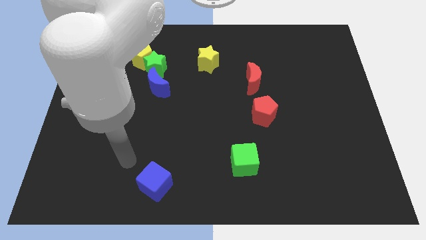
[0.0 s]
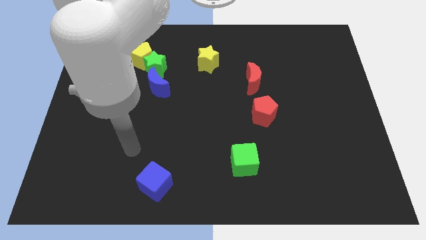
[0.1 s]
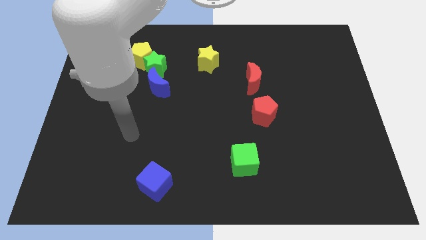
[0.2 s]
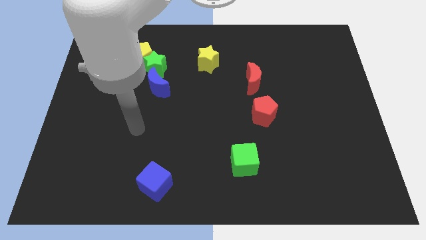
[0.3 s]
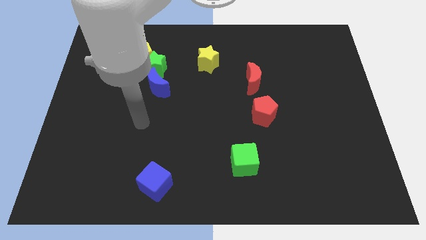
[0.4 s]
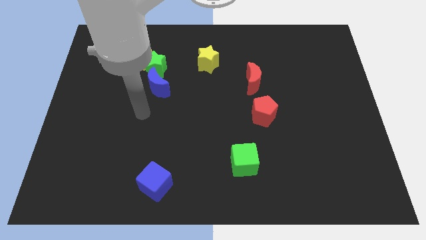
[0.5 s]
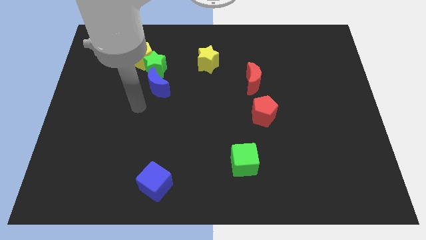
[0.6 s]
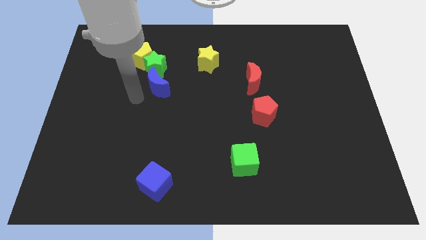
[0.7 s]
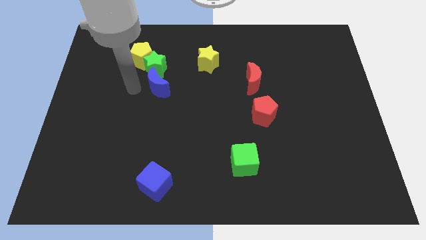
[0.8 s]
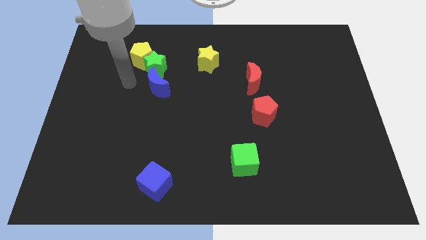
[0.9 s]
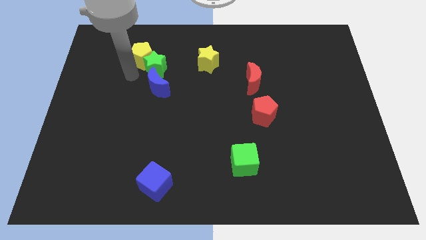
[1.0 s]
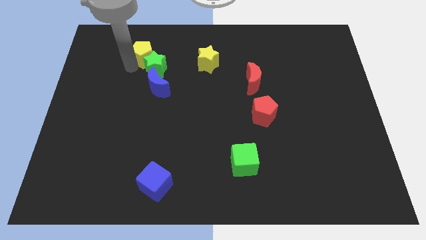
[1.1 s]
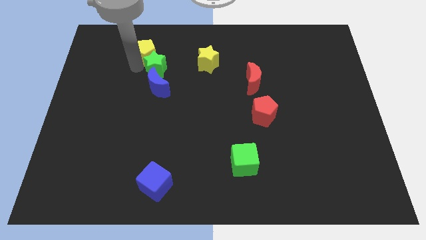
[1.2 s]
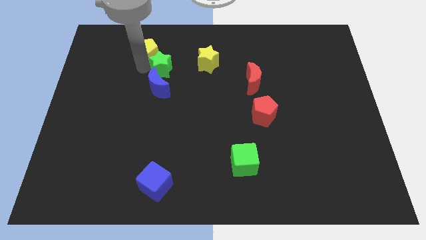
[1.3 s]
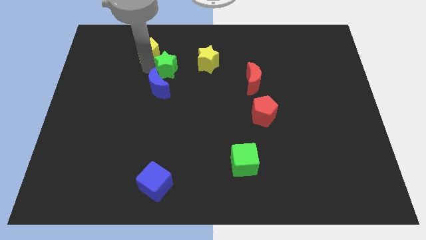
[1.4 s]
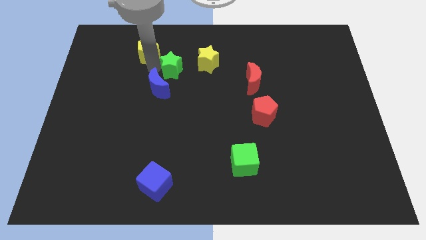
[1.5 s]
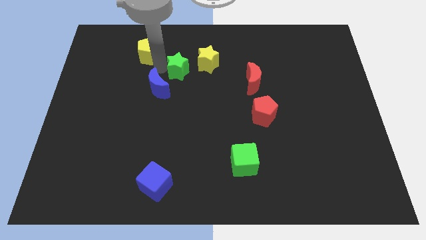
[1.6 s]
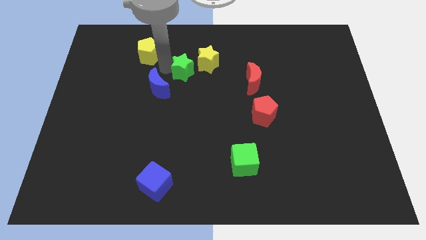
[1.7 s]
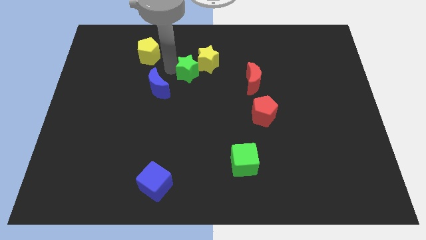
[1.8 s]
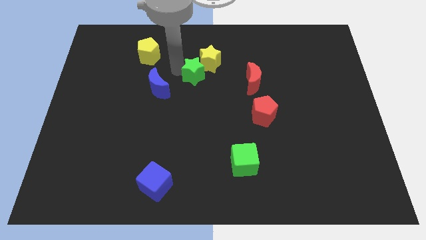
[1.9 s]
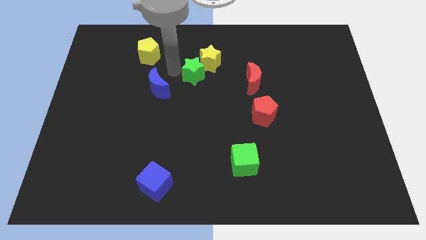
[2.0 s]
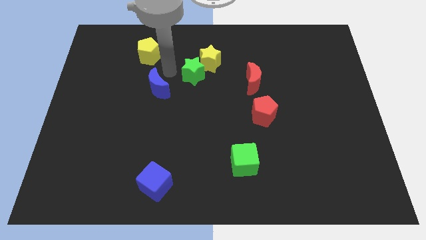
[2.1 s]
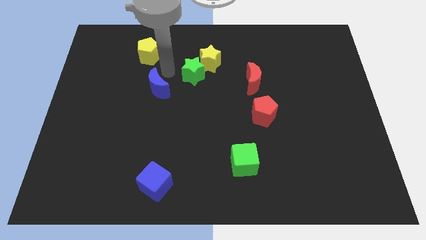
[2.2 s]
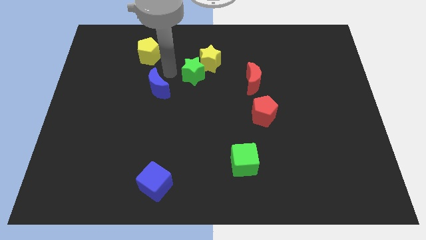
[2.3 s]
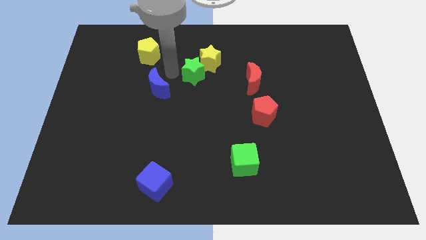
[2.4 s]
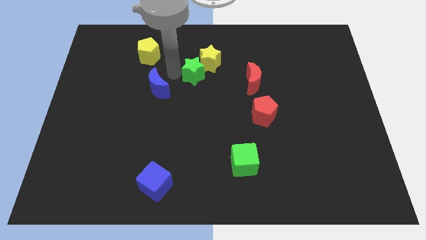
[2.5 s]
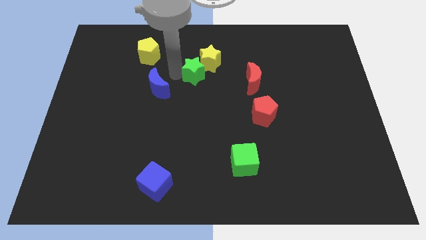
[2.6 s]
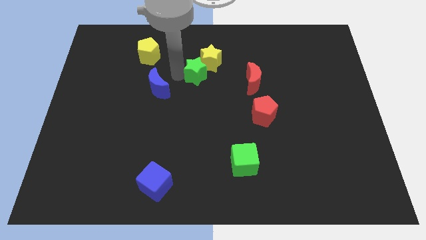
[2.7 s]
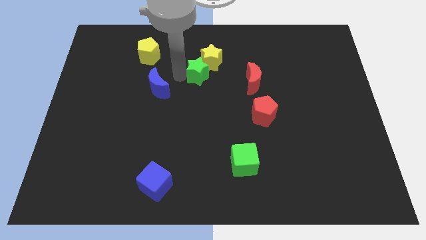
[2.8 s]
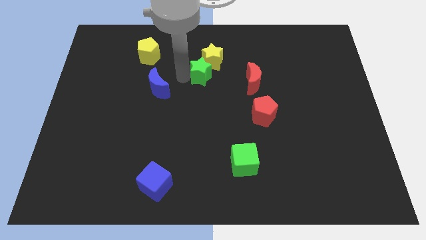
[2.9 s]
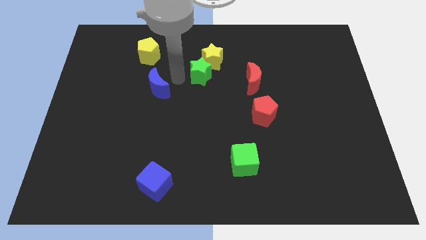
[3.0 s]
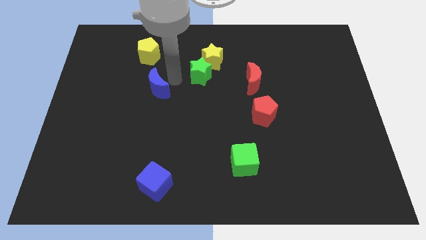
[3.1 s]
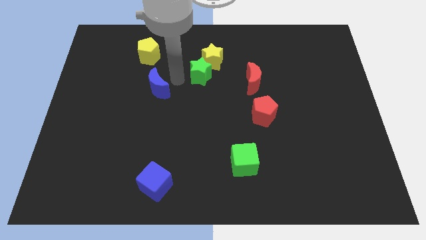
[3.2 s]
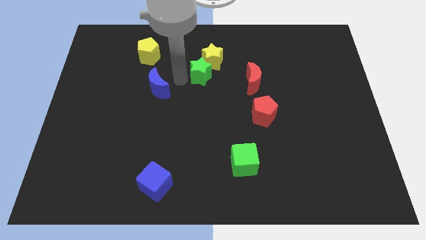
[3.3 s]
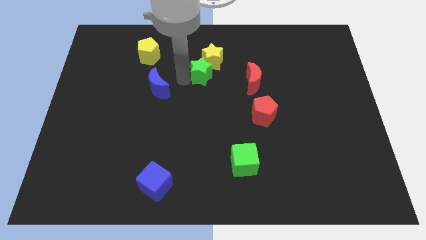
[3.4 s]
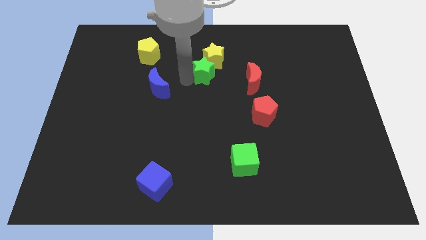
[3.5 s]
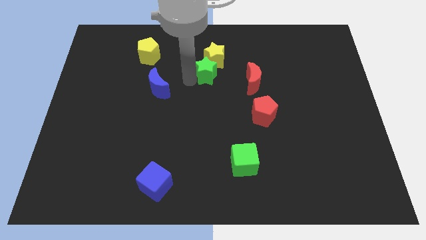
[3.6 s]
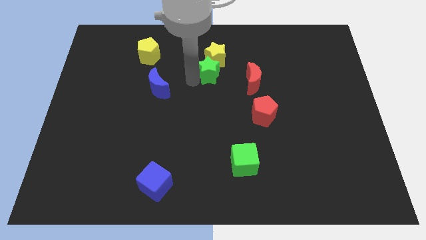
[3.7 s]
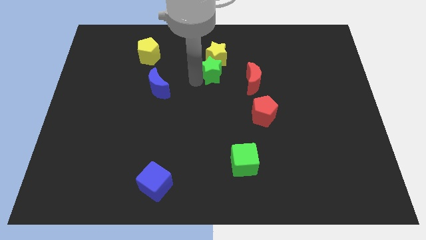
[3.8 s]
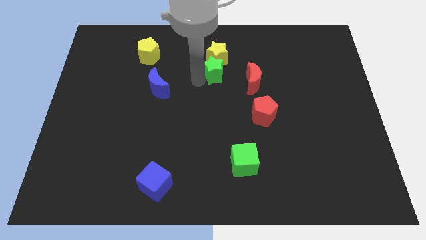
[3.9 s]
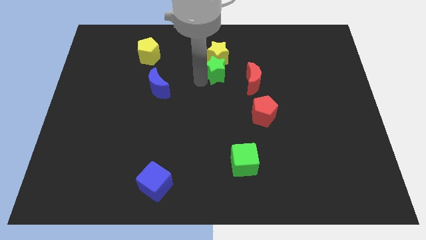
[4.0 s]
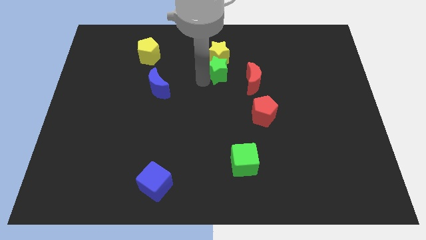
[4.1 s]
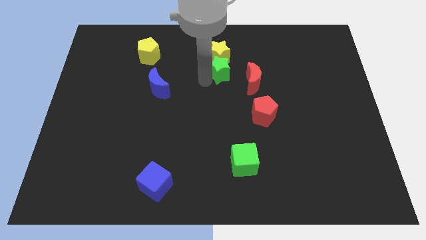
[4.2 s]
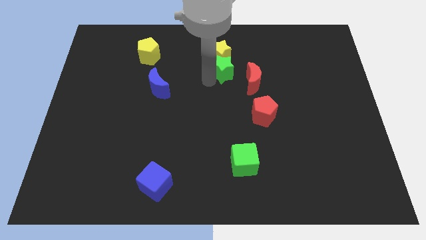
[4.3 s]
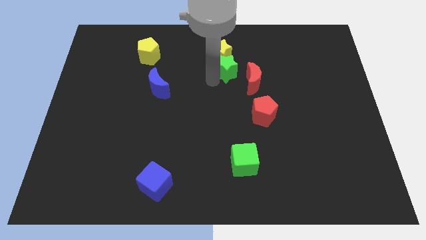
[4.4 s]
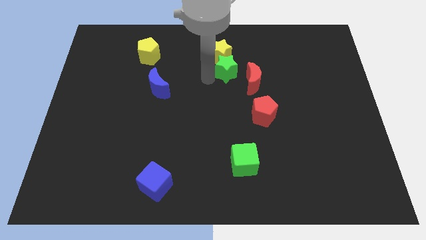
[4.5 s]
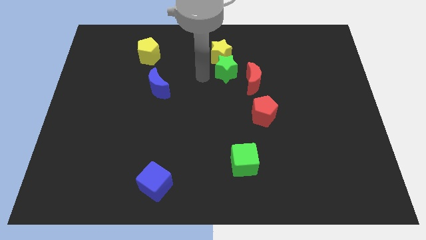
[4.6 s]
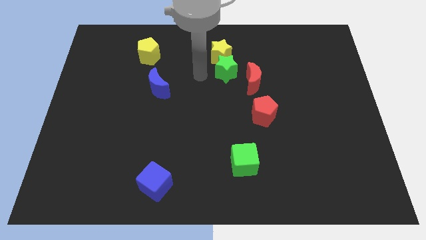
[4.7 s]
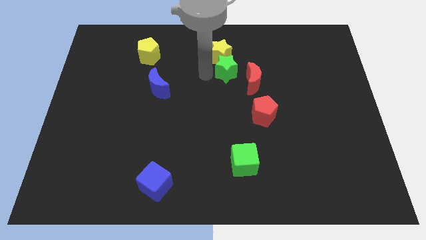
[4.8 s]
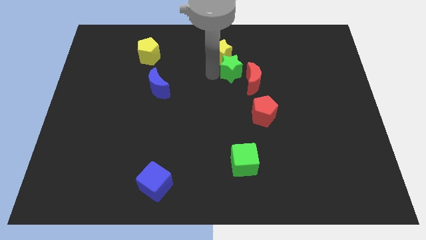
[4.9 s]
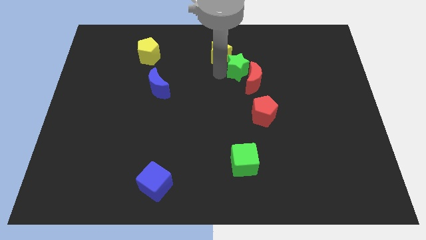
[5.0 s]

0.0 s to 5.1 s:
push the green star right

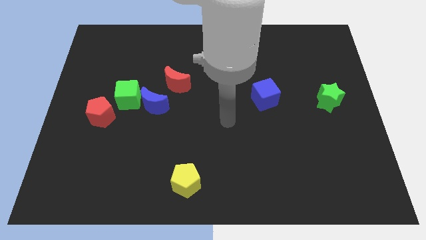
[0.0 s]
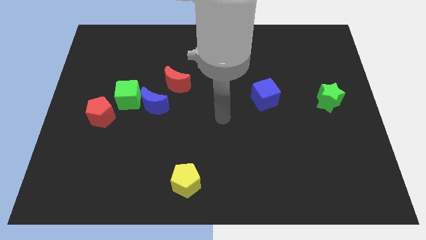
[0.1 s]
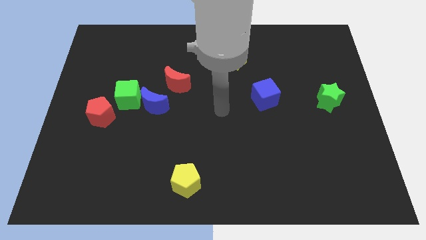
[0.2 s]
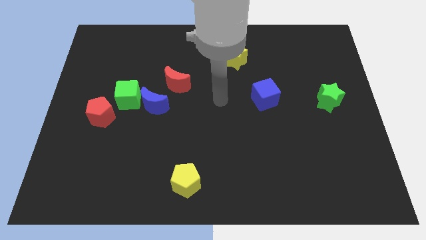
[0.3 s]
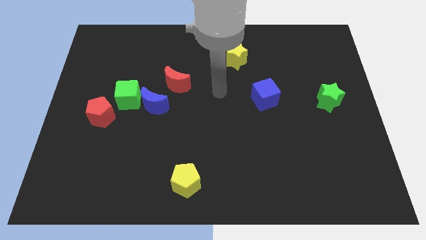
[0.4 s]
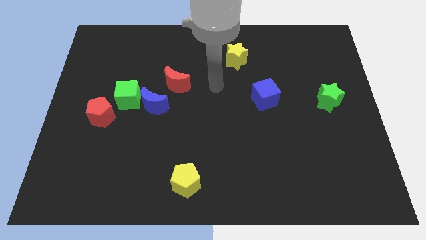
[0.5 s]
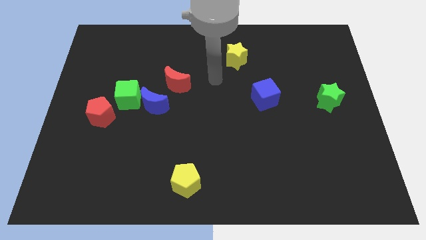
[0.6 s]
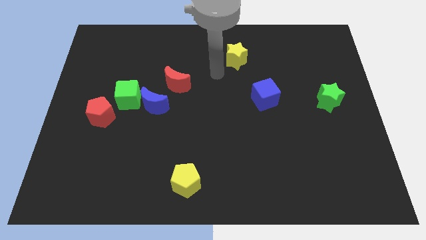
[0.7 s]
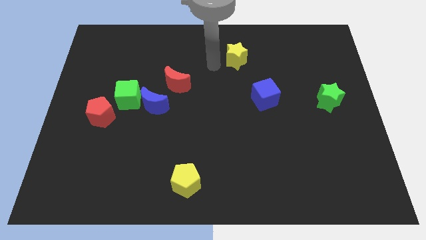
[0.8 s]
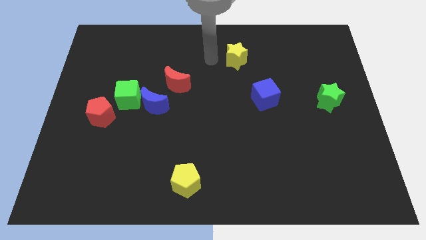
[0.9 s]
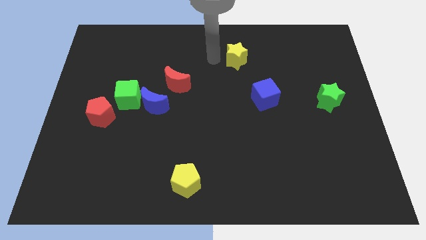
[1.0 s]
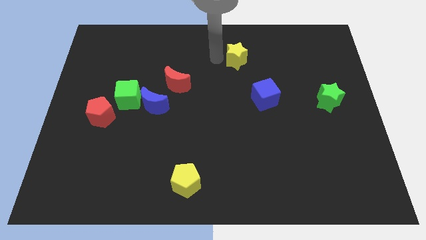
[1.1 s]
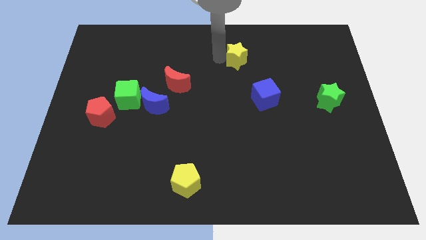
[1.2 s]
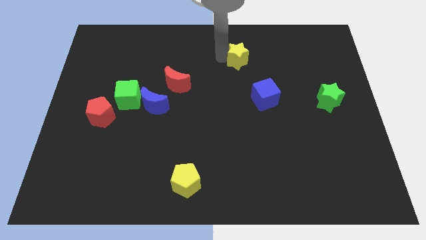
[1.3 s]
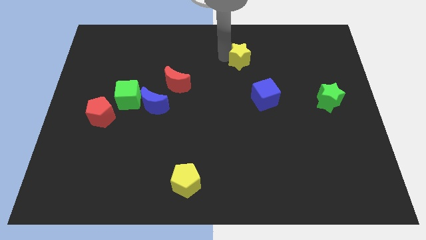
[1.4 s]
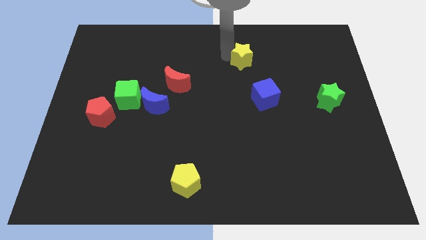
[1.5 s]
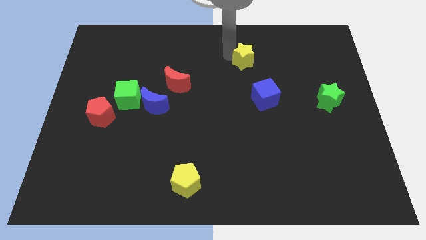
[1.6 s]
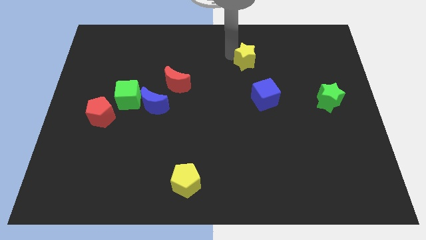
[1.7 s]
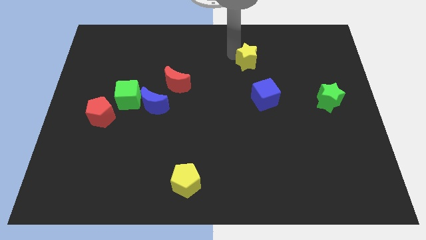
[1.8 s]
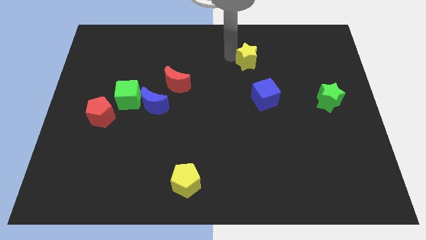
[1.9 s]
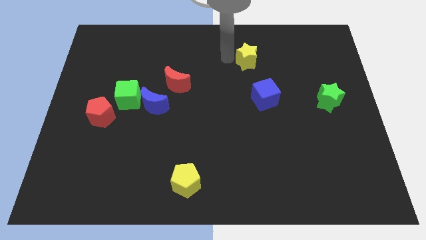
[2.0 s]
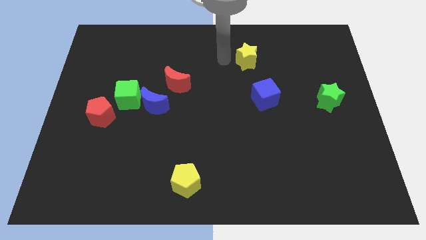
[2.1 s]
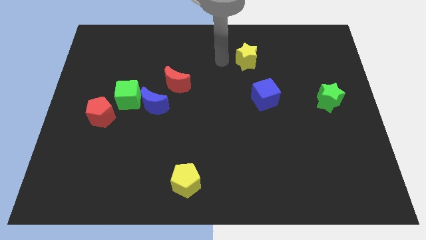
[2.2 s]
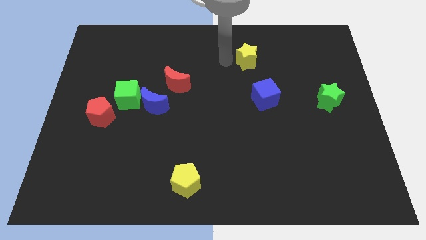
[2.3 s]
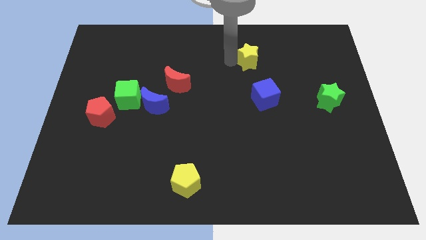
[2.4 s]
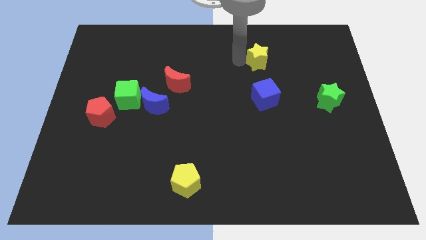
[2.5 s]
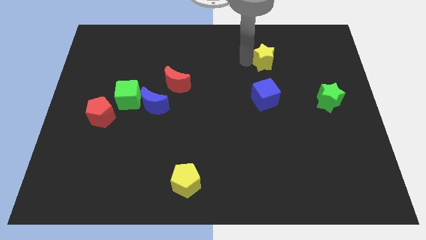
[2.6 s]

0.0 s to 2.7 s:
move the yellow star a little right

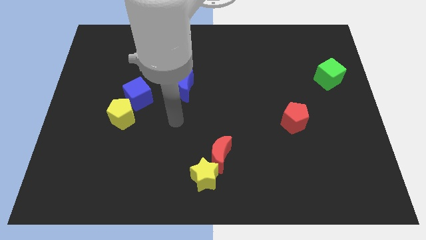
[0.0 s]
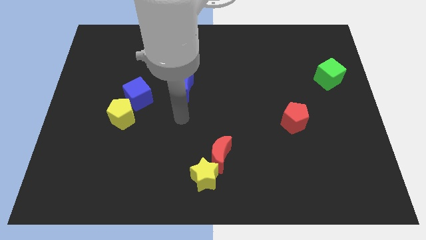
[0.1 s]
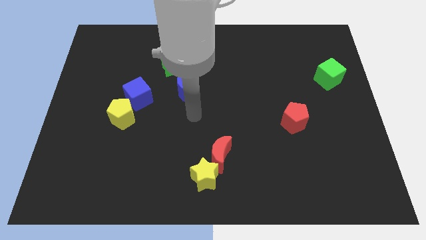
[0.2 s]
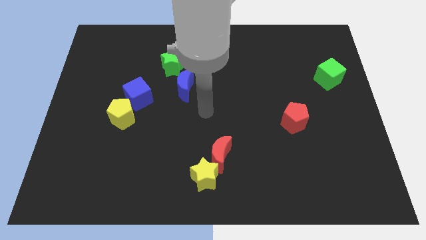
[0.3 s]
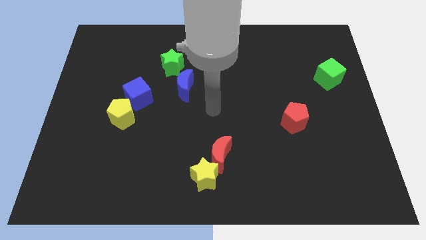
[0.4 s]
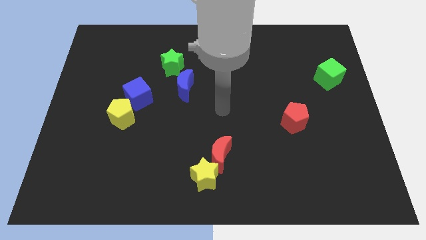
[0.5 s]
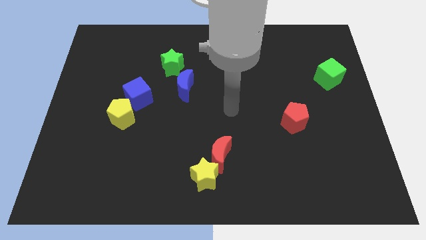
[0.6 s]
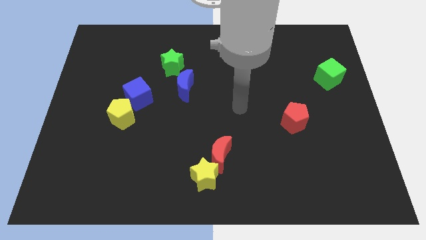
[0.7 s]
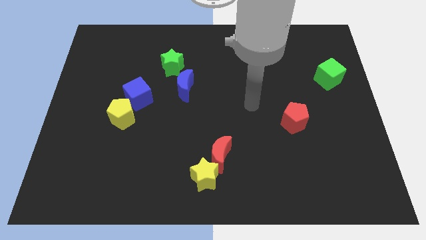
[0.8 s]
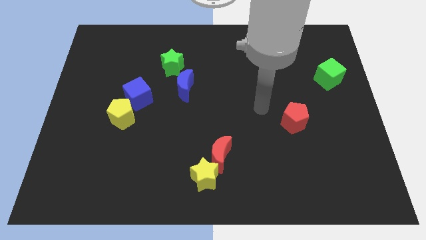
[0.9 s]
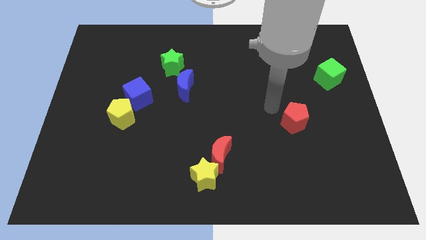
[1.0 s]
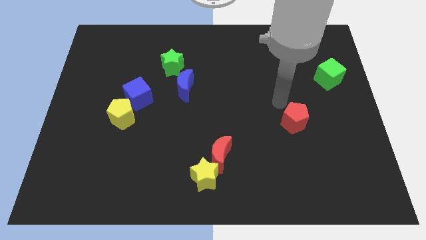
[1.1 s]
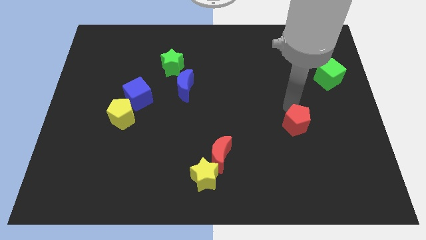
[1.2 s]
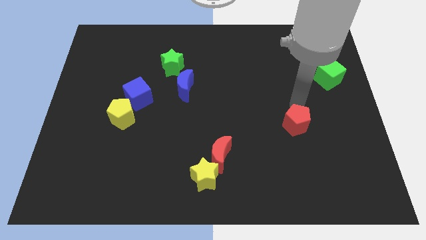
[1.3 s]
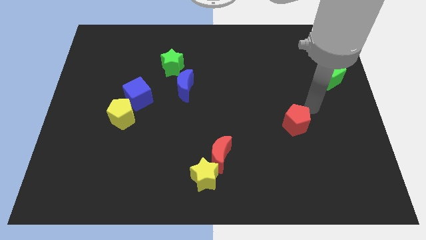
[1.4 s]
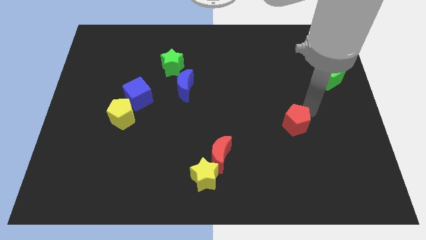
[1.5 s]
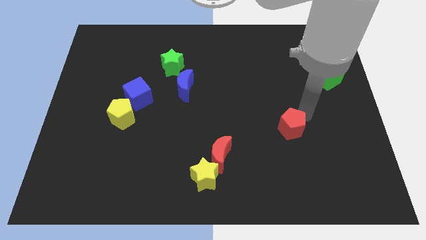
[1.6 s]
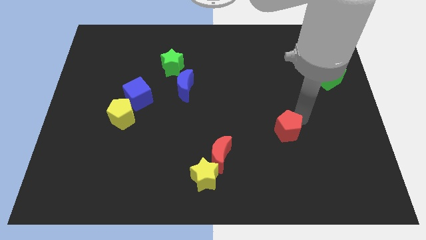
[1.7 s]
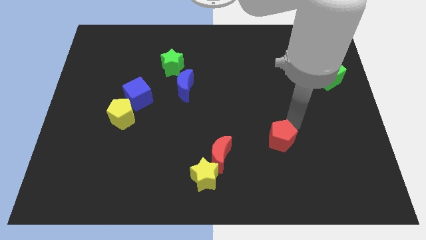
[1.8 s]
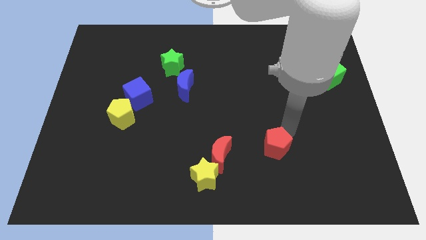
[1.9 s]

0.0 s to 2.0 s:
slide the red pentagon somewhat diagonally down and left
